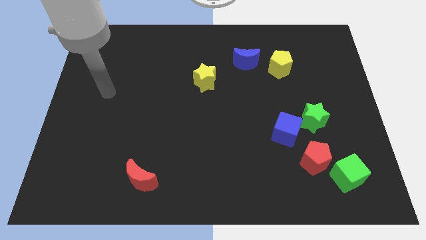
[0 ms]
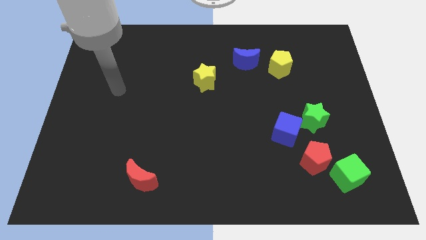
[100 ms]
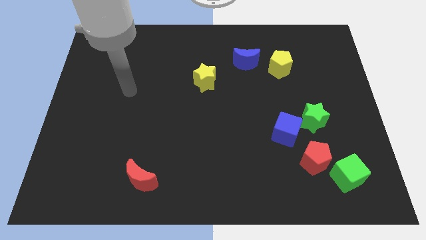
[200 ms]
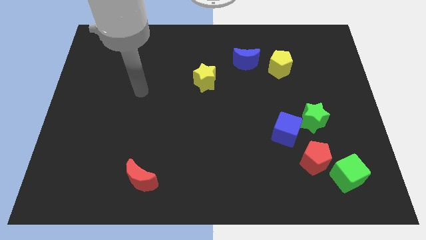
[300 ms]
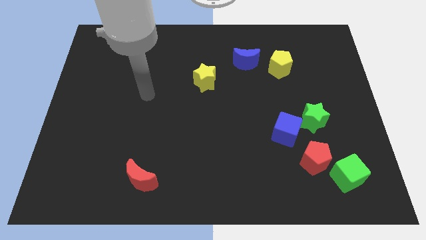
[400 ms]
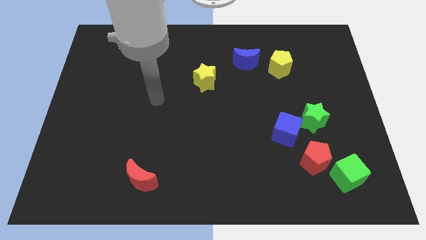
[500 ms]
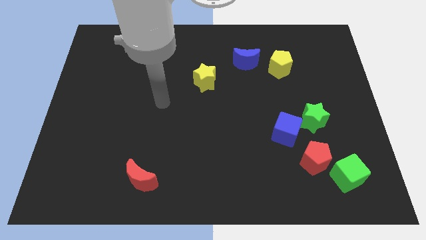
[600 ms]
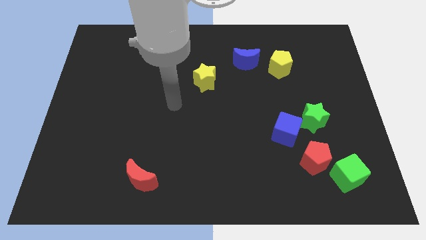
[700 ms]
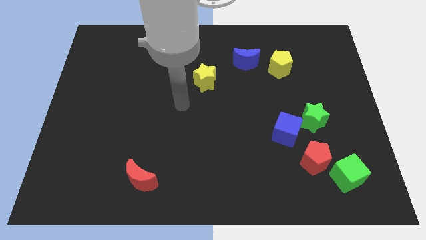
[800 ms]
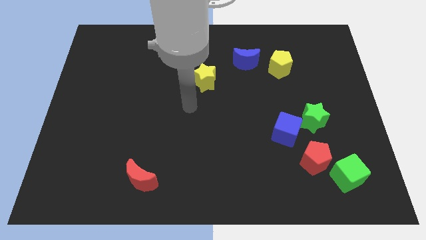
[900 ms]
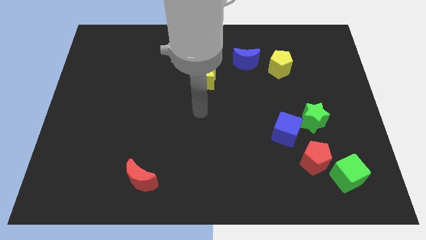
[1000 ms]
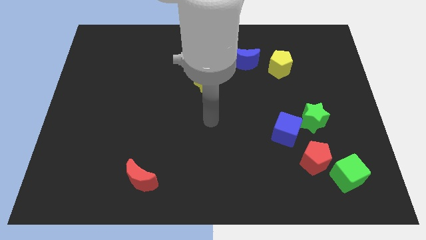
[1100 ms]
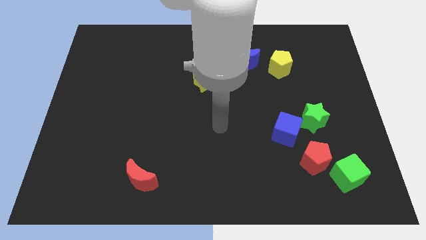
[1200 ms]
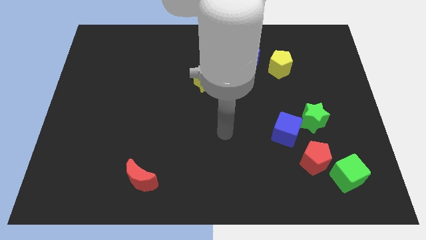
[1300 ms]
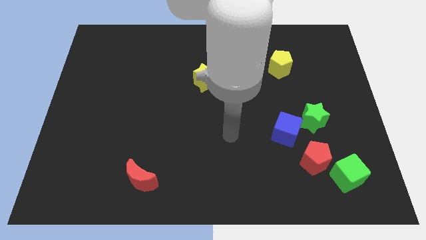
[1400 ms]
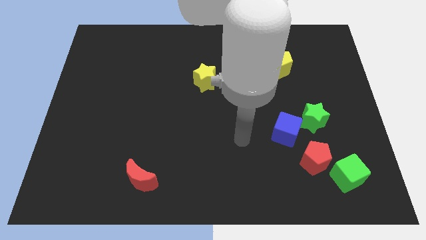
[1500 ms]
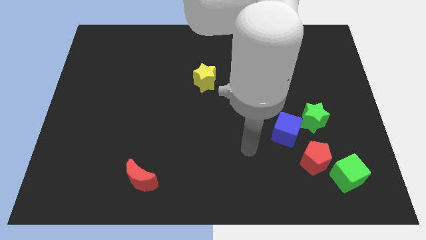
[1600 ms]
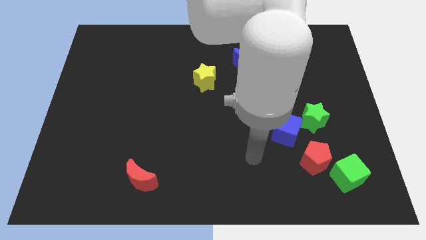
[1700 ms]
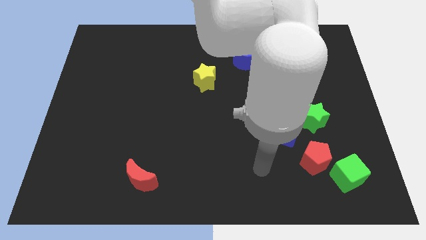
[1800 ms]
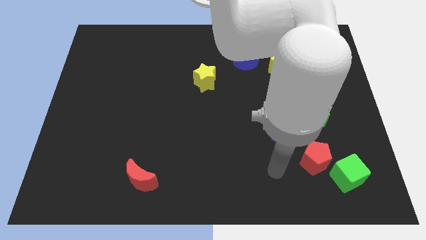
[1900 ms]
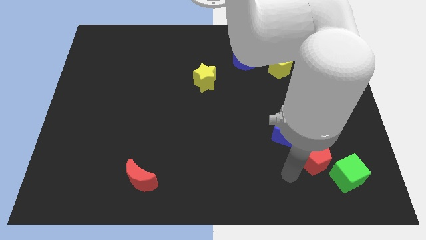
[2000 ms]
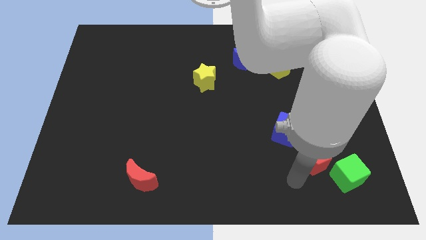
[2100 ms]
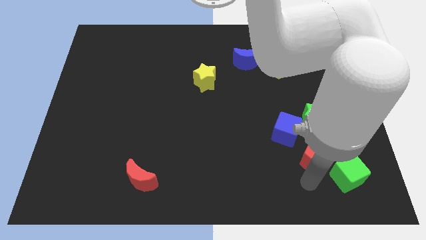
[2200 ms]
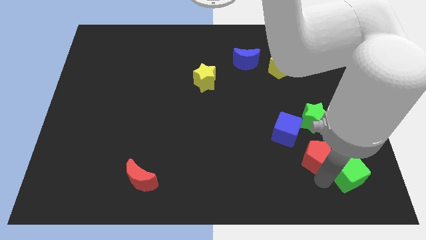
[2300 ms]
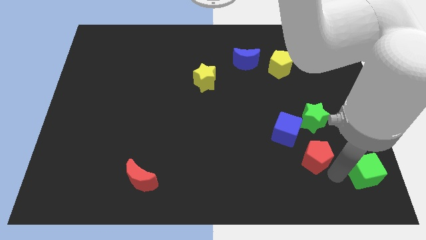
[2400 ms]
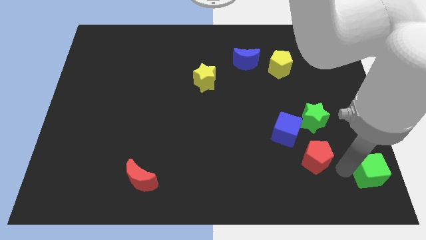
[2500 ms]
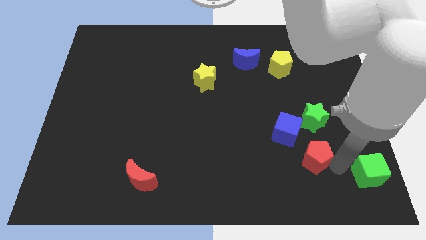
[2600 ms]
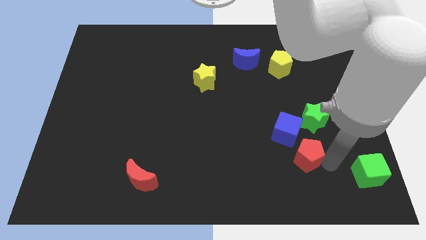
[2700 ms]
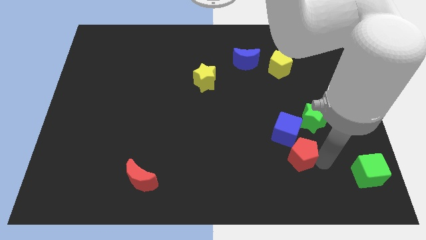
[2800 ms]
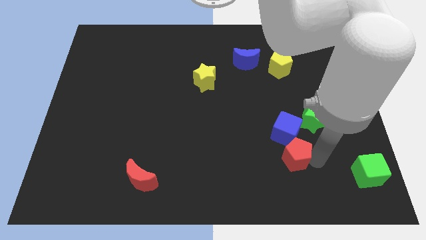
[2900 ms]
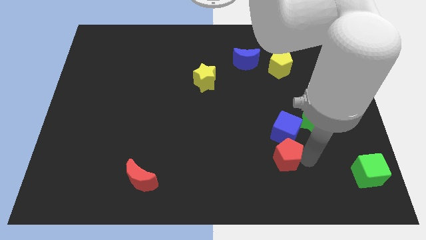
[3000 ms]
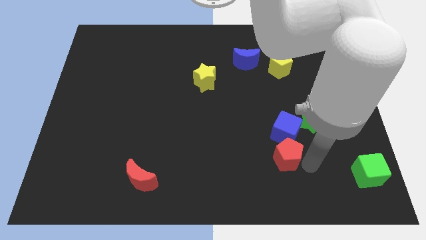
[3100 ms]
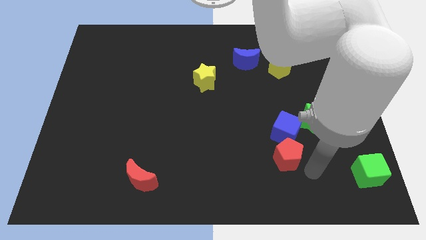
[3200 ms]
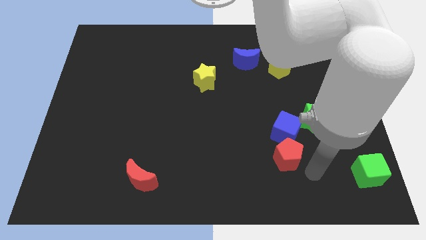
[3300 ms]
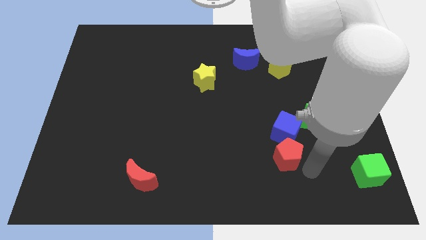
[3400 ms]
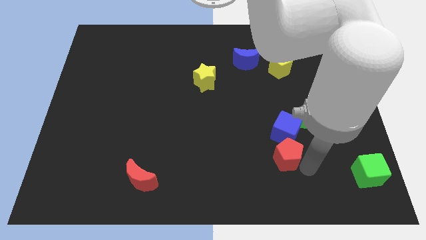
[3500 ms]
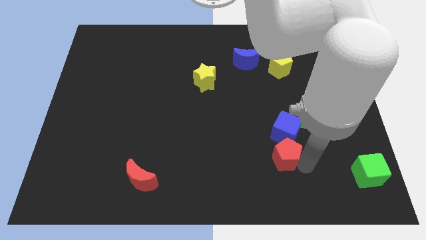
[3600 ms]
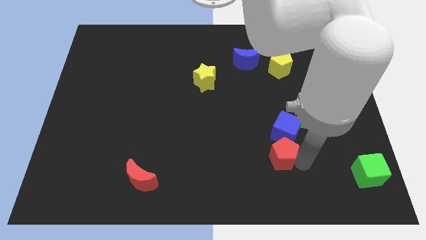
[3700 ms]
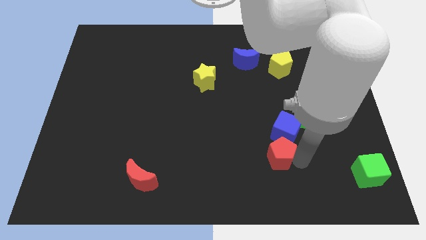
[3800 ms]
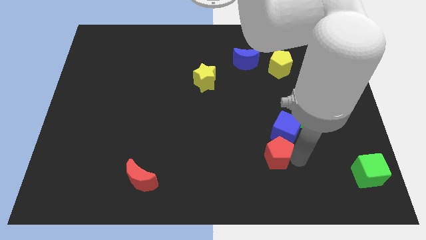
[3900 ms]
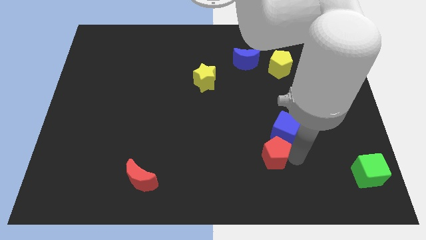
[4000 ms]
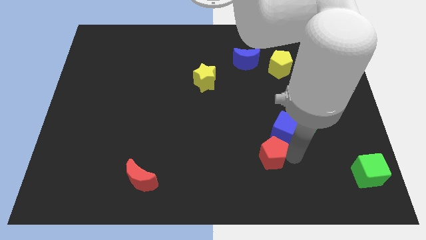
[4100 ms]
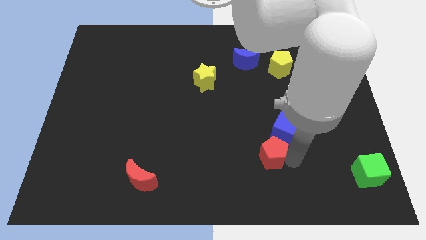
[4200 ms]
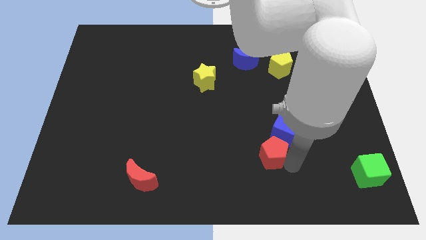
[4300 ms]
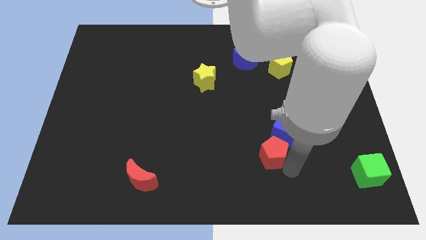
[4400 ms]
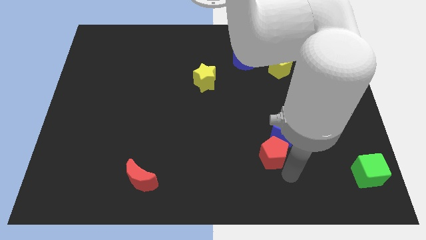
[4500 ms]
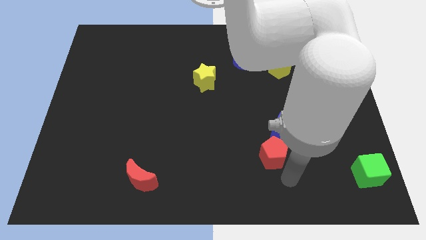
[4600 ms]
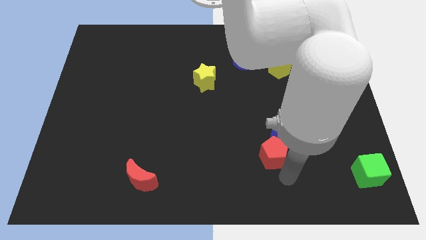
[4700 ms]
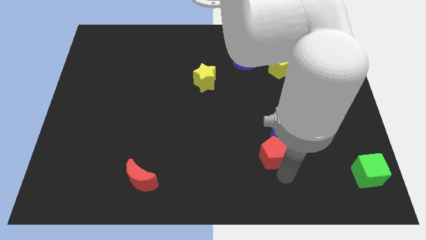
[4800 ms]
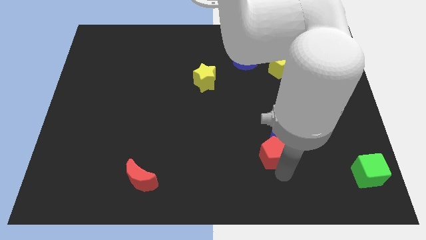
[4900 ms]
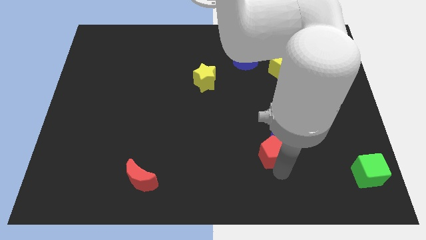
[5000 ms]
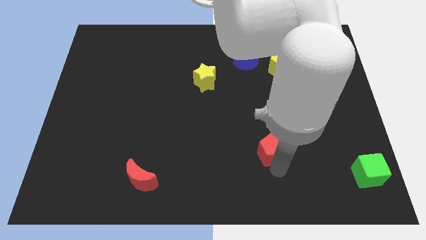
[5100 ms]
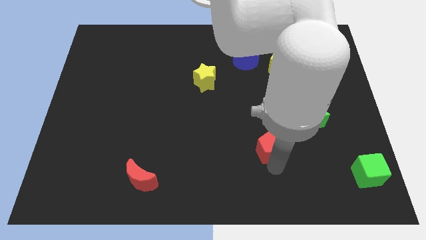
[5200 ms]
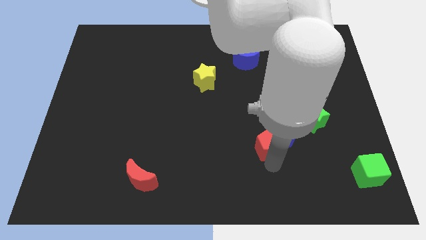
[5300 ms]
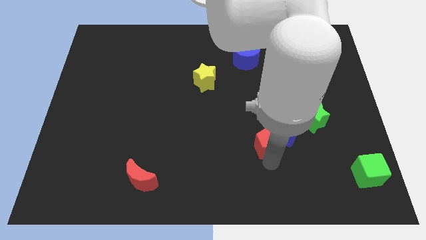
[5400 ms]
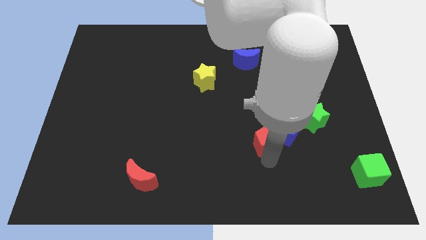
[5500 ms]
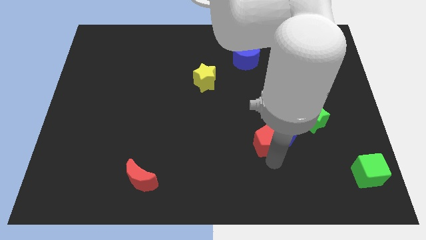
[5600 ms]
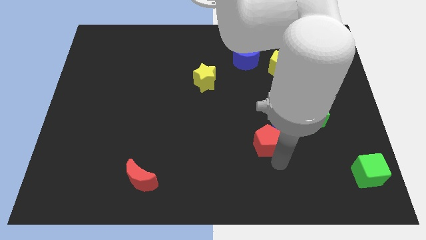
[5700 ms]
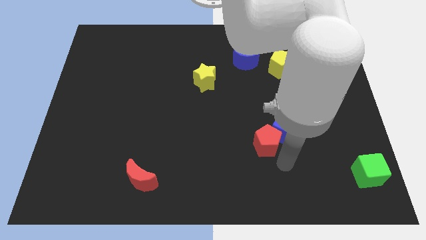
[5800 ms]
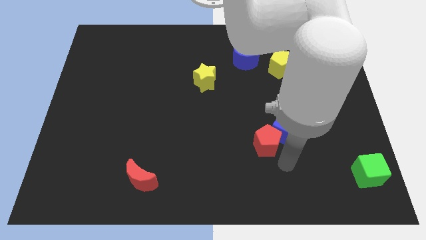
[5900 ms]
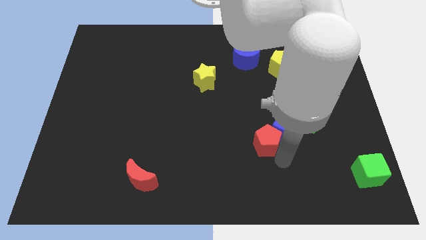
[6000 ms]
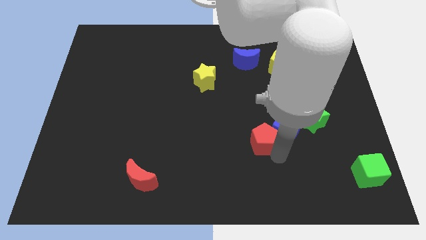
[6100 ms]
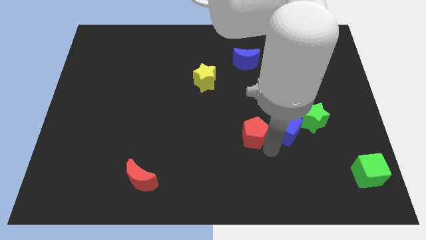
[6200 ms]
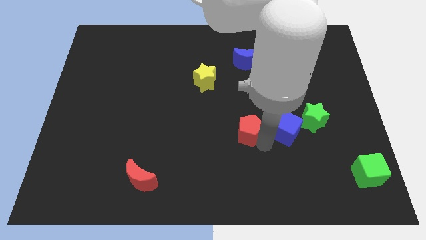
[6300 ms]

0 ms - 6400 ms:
put the red pentagon to the center

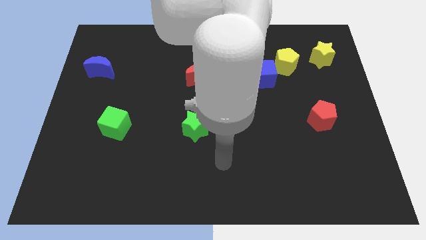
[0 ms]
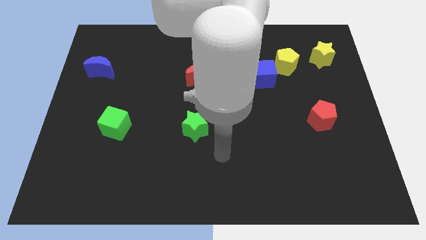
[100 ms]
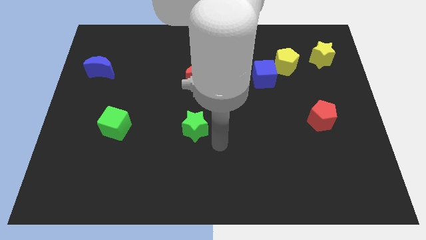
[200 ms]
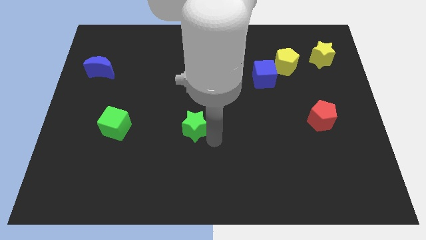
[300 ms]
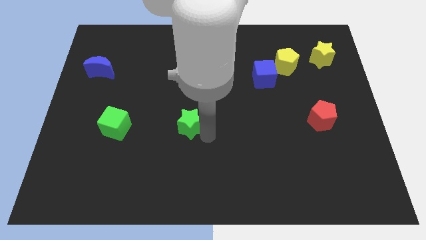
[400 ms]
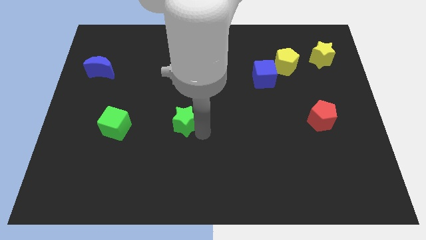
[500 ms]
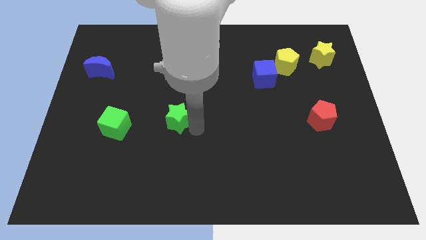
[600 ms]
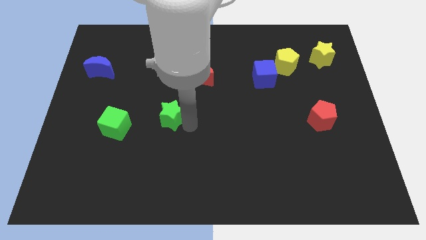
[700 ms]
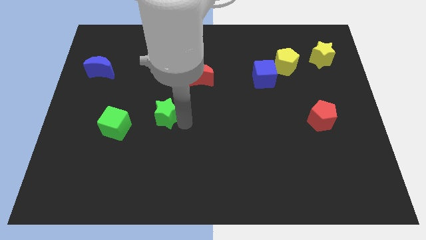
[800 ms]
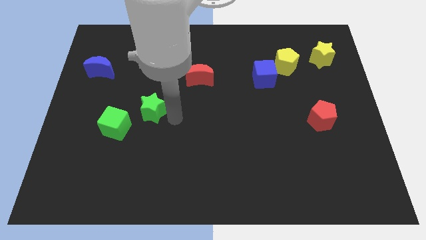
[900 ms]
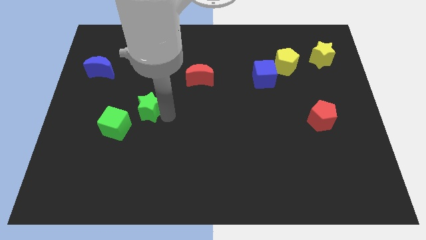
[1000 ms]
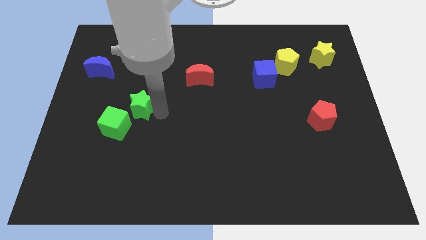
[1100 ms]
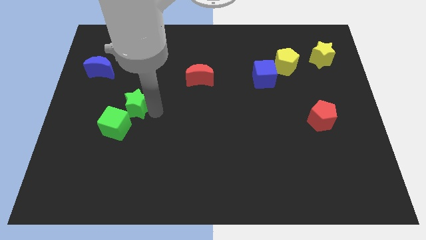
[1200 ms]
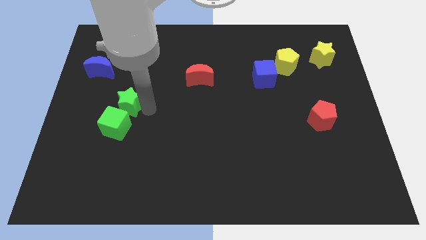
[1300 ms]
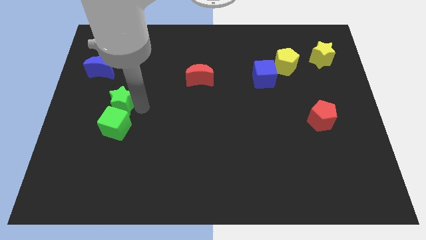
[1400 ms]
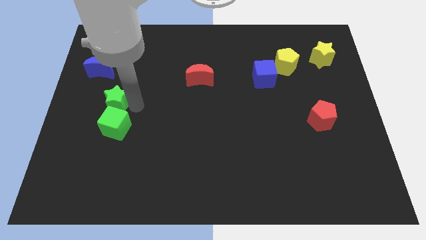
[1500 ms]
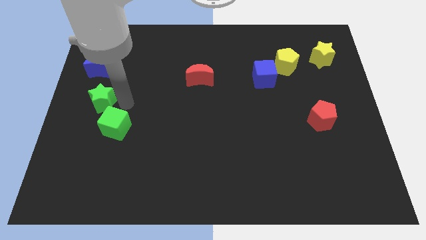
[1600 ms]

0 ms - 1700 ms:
push the green star to the center left
